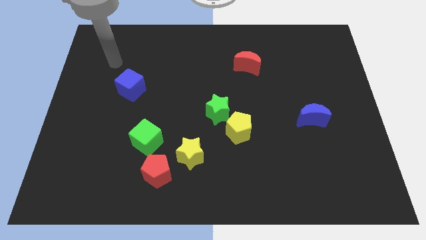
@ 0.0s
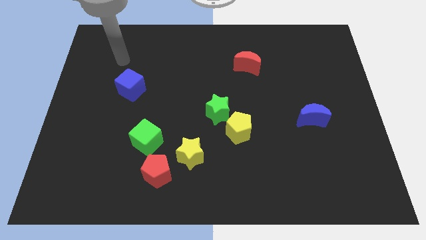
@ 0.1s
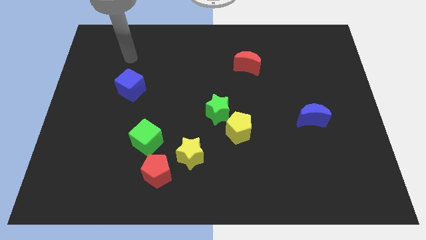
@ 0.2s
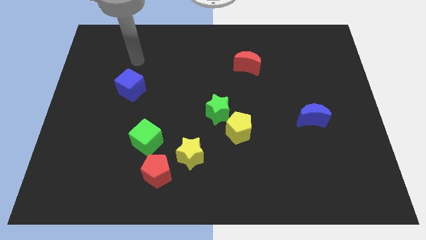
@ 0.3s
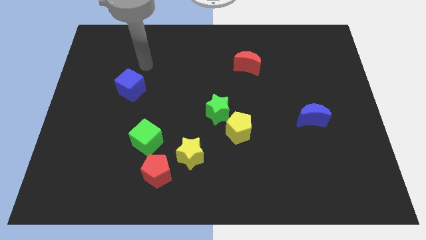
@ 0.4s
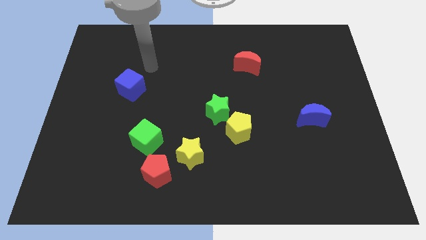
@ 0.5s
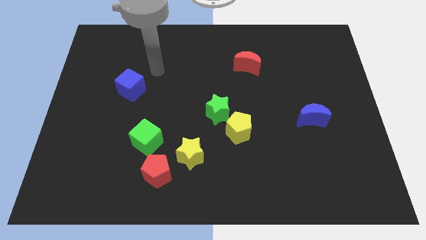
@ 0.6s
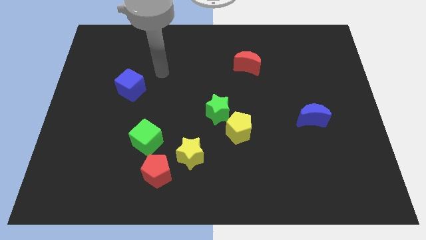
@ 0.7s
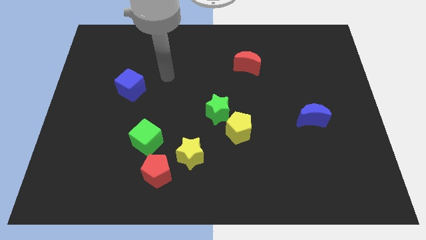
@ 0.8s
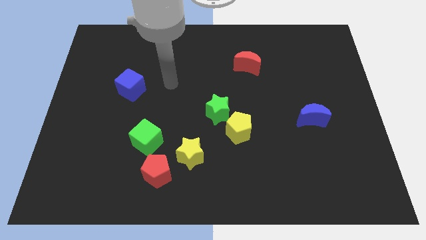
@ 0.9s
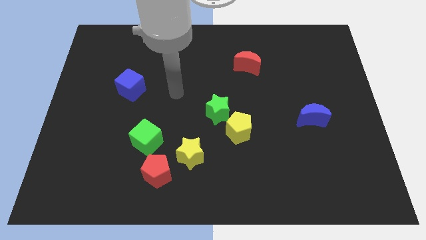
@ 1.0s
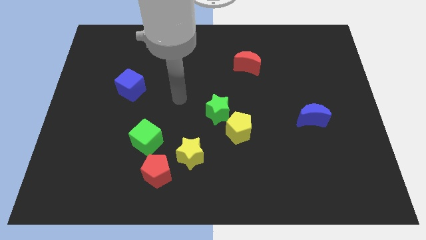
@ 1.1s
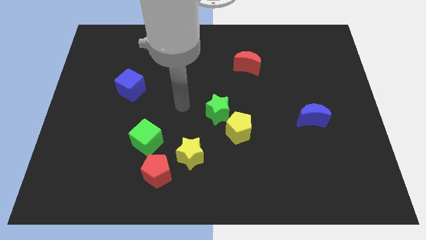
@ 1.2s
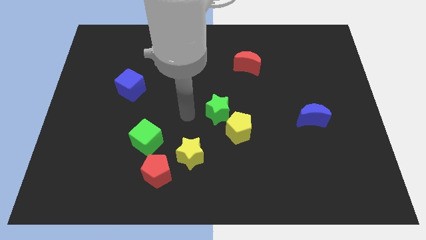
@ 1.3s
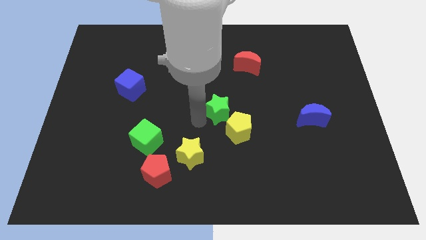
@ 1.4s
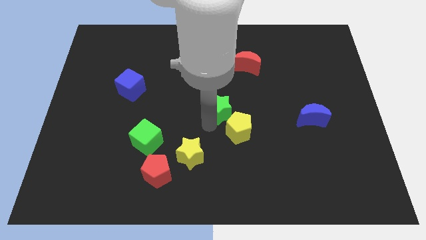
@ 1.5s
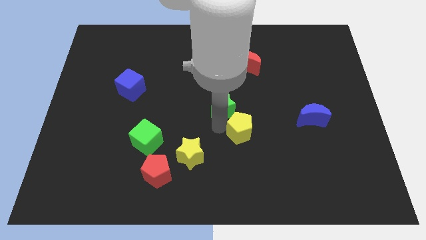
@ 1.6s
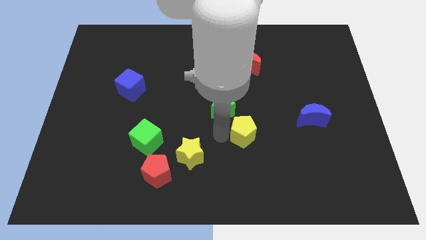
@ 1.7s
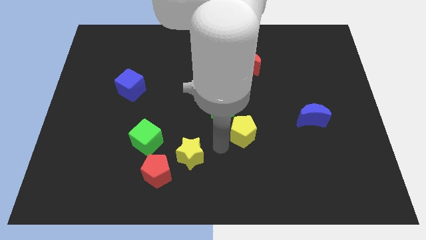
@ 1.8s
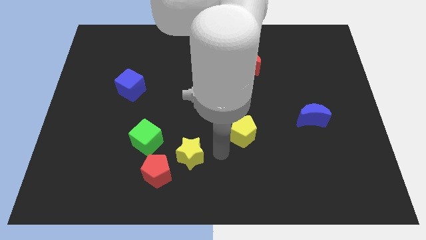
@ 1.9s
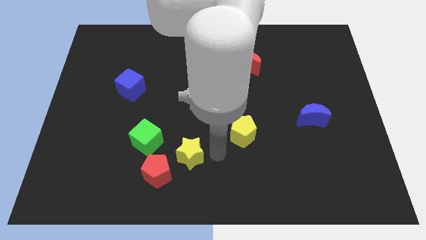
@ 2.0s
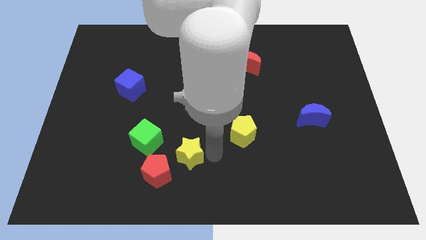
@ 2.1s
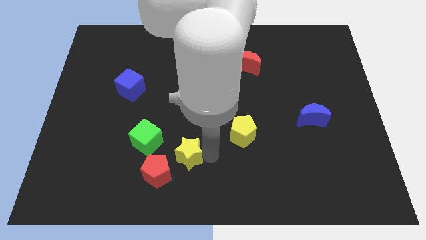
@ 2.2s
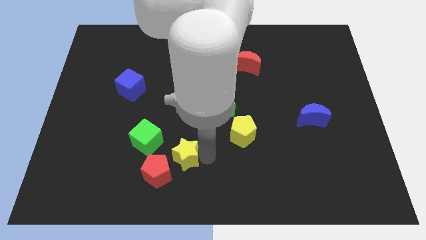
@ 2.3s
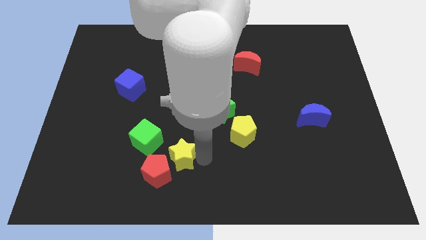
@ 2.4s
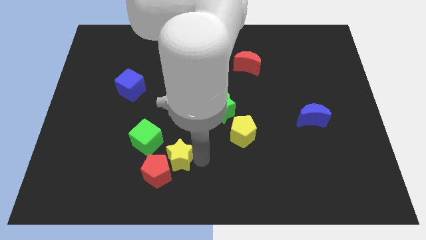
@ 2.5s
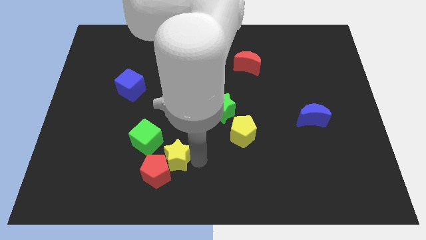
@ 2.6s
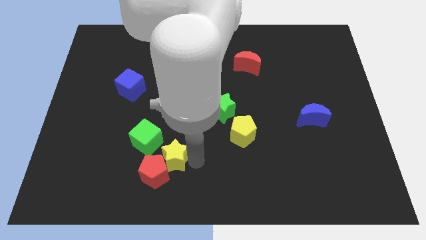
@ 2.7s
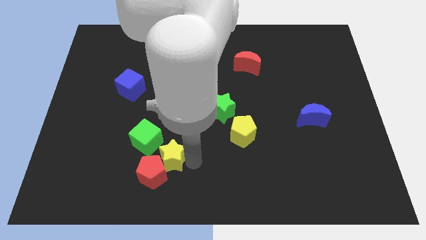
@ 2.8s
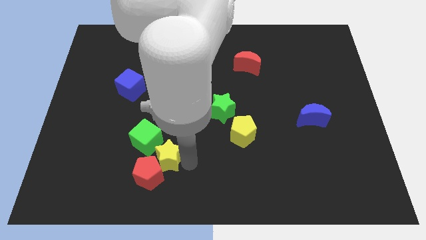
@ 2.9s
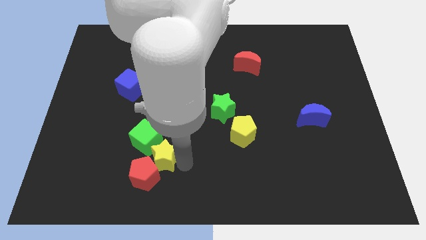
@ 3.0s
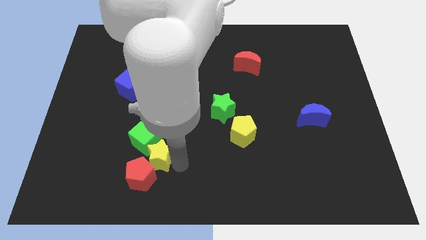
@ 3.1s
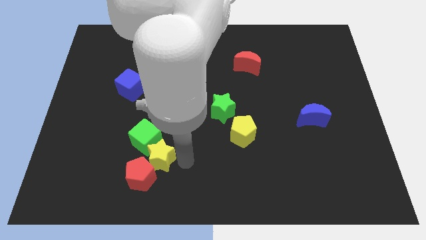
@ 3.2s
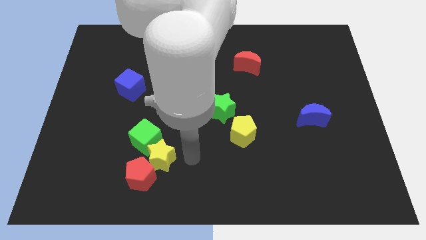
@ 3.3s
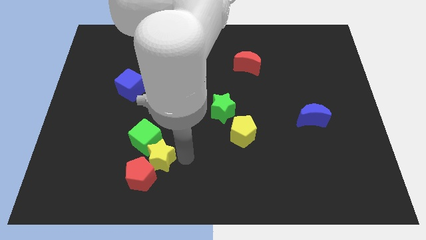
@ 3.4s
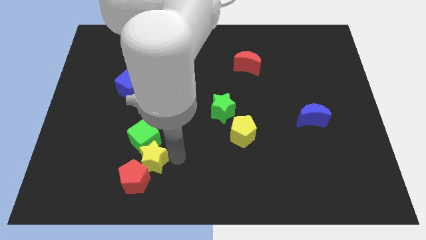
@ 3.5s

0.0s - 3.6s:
slightly push the yellow star to the left

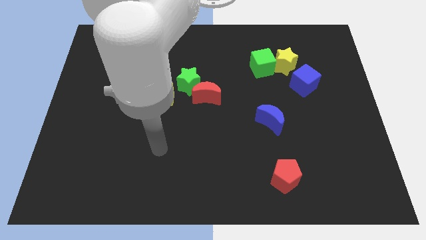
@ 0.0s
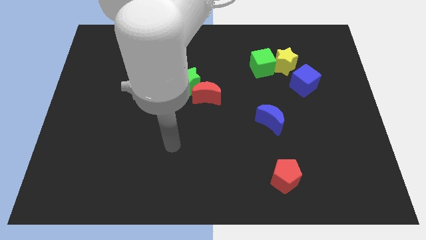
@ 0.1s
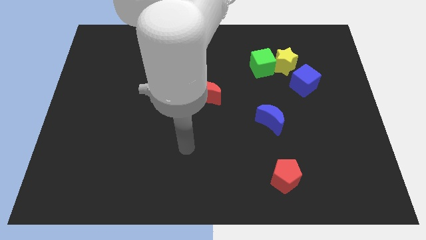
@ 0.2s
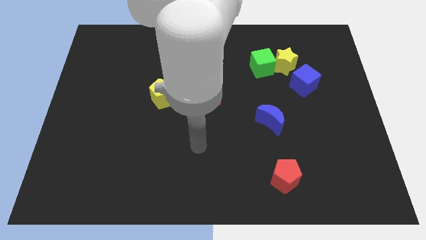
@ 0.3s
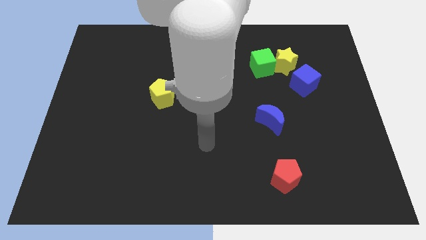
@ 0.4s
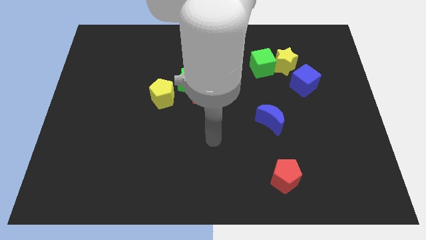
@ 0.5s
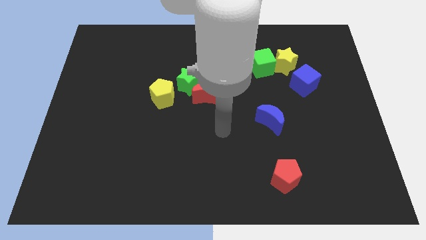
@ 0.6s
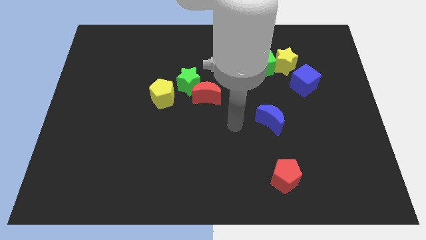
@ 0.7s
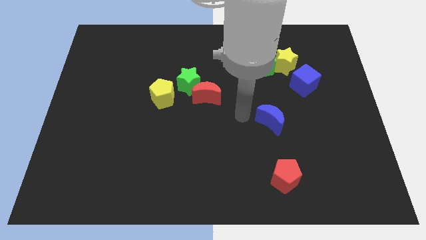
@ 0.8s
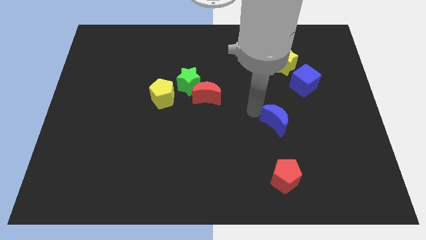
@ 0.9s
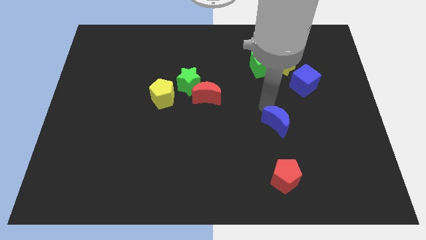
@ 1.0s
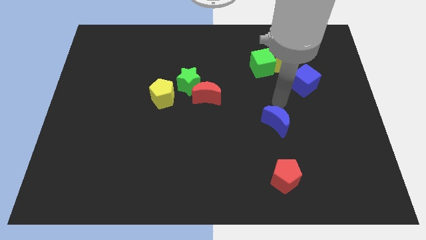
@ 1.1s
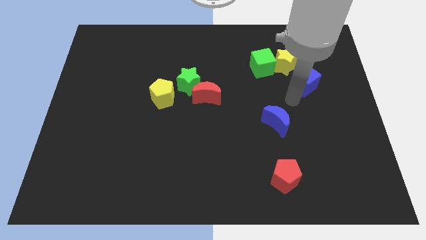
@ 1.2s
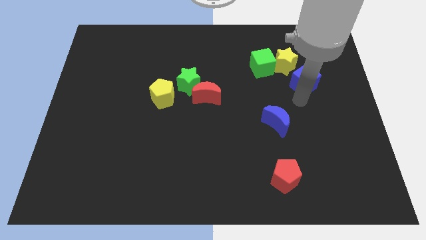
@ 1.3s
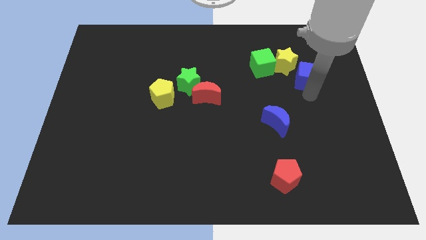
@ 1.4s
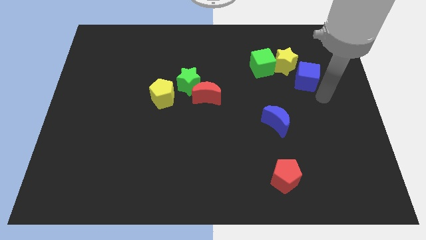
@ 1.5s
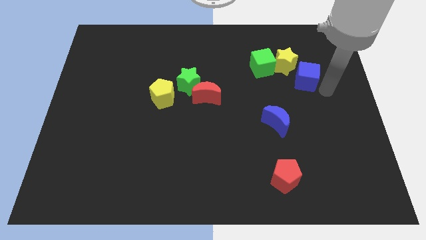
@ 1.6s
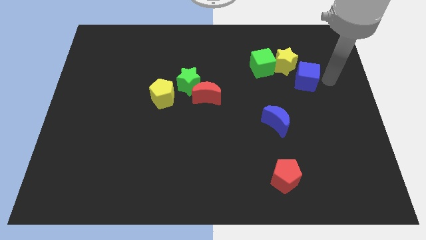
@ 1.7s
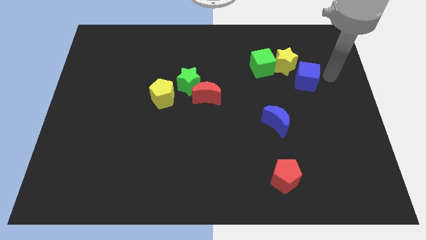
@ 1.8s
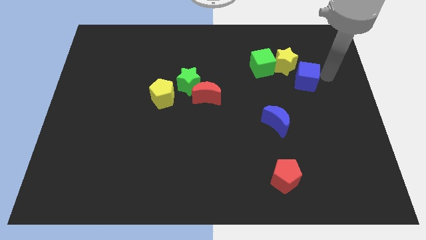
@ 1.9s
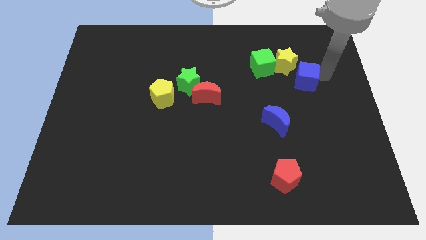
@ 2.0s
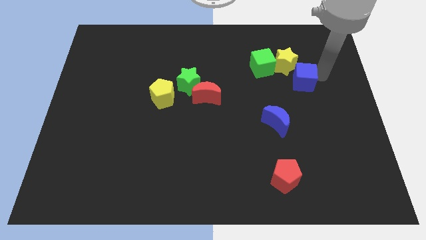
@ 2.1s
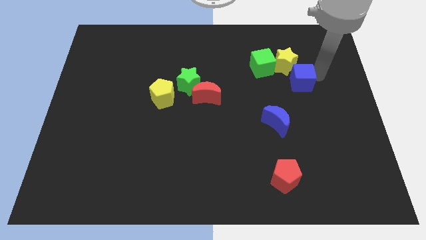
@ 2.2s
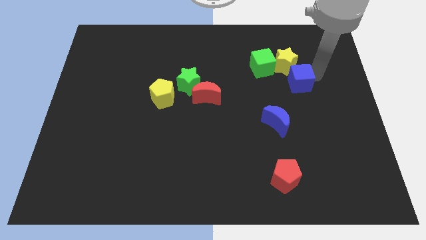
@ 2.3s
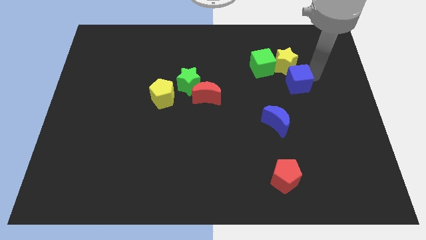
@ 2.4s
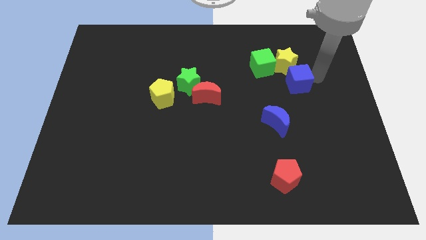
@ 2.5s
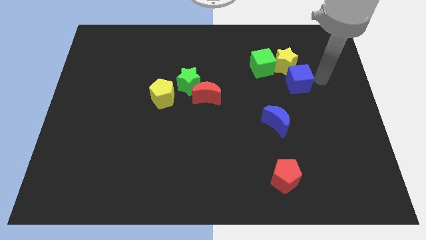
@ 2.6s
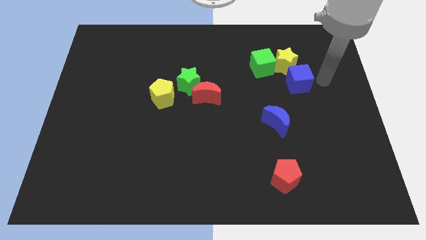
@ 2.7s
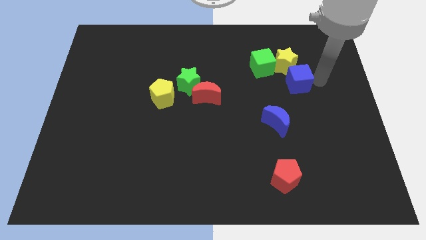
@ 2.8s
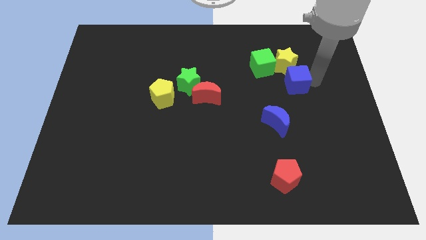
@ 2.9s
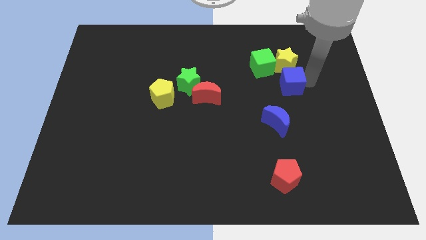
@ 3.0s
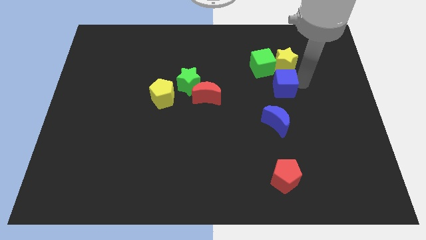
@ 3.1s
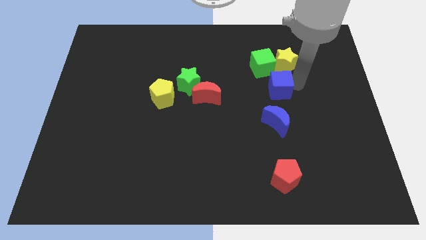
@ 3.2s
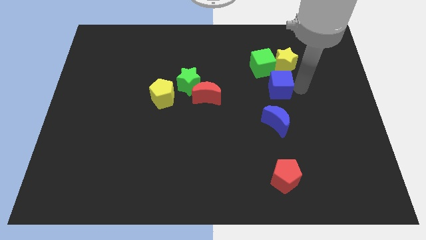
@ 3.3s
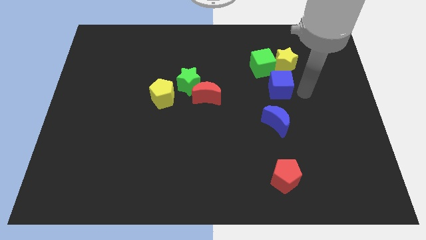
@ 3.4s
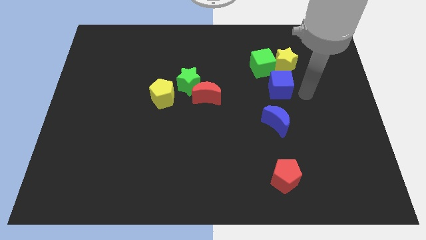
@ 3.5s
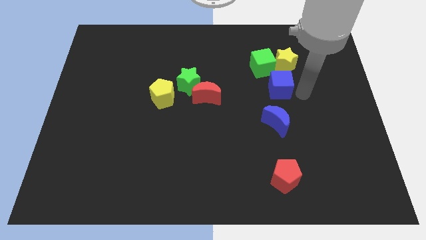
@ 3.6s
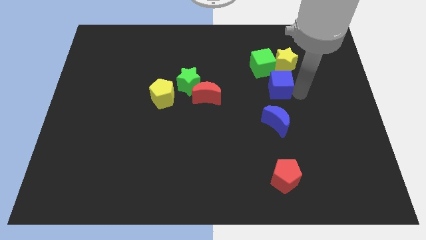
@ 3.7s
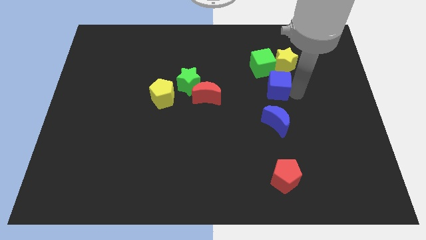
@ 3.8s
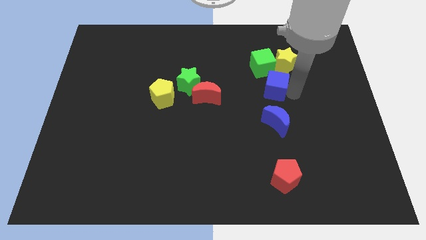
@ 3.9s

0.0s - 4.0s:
slightly move the blue cube to the left

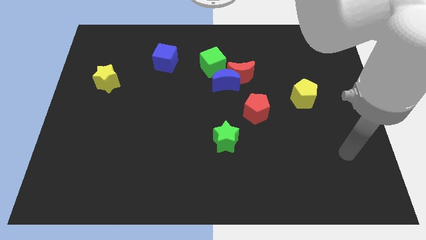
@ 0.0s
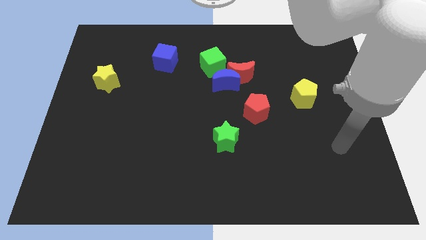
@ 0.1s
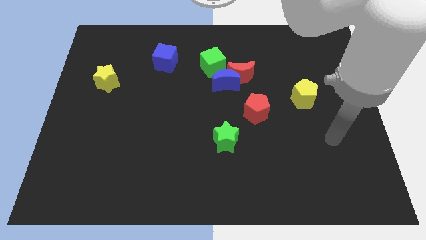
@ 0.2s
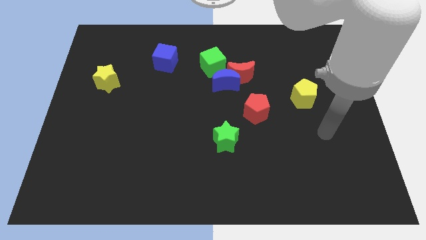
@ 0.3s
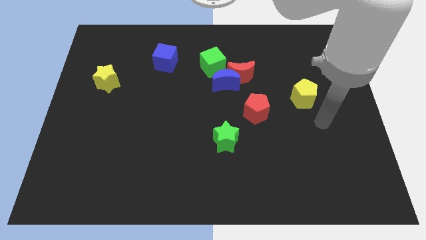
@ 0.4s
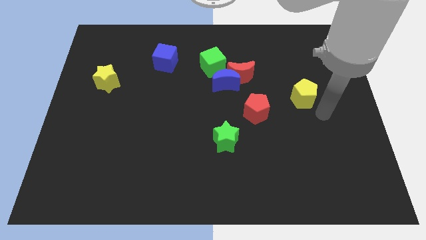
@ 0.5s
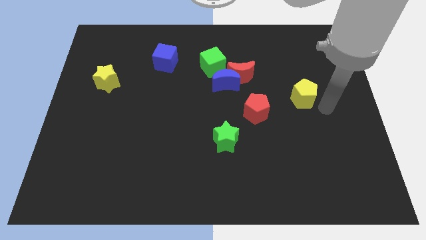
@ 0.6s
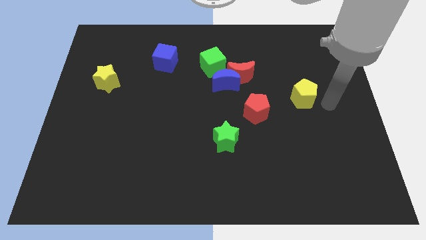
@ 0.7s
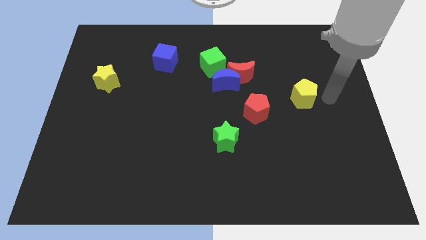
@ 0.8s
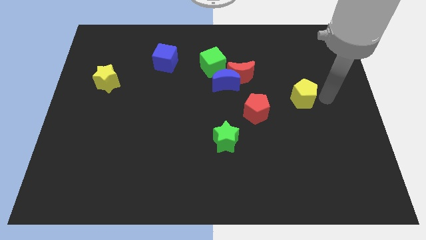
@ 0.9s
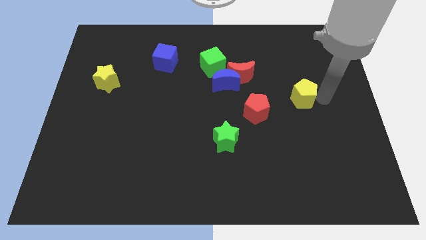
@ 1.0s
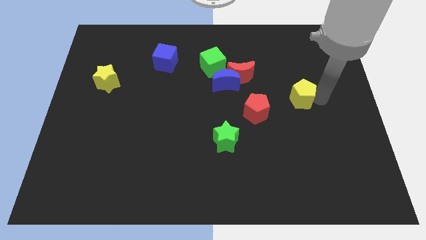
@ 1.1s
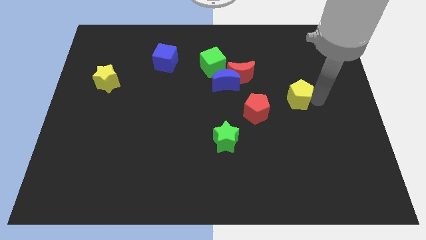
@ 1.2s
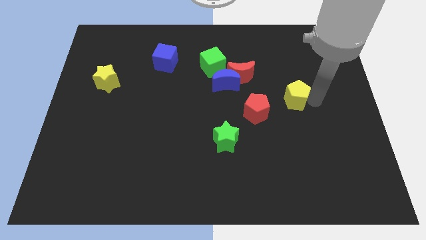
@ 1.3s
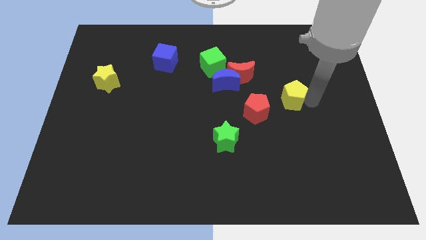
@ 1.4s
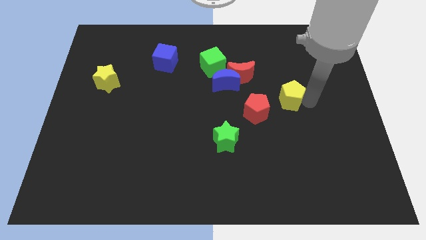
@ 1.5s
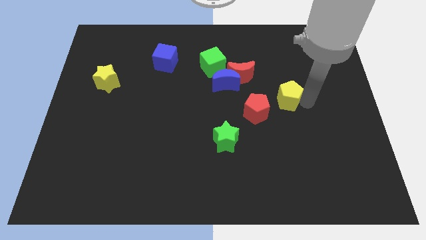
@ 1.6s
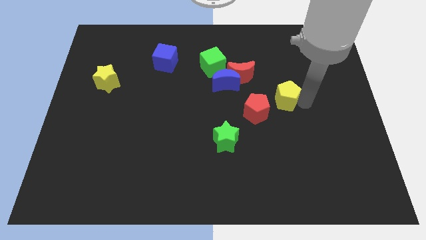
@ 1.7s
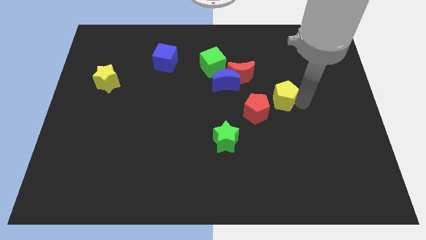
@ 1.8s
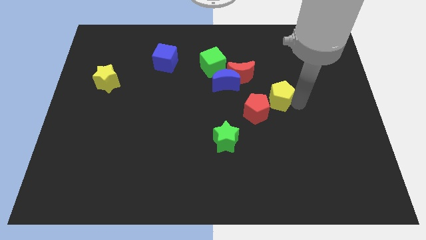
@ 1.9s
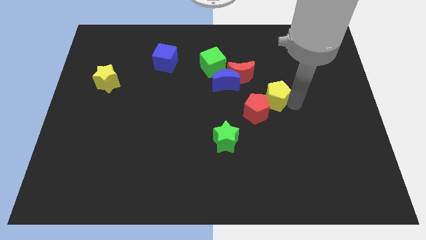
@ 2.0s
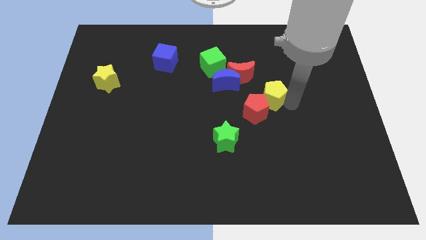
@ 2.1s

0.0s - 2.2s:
slide the yellow pentagon a bit left
